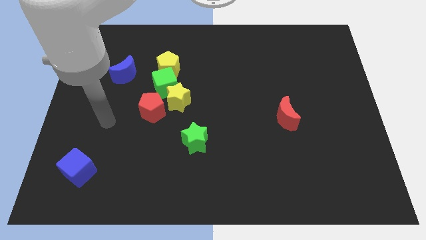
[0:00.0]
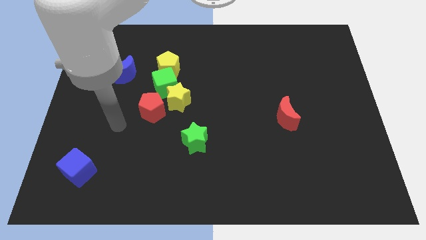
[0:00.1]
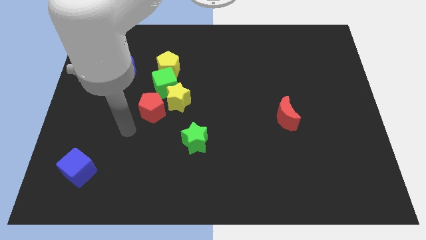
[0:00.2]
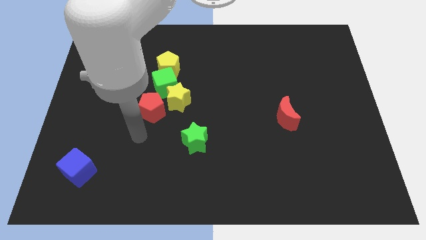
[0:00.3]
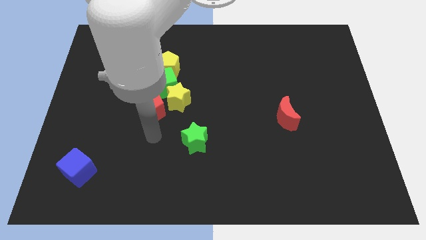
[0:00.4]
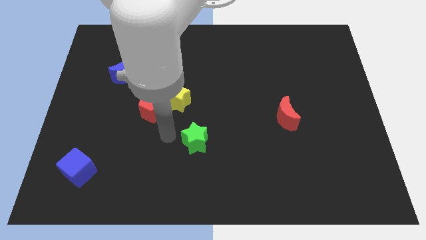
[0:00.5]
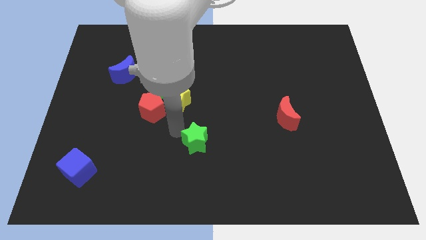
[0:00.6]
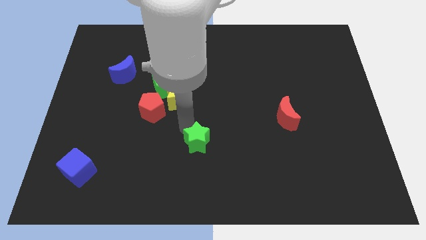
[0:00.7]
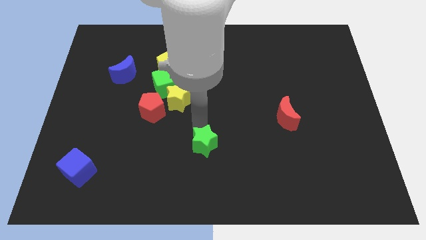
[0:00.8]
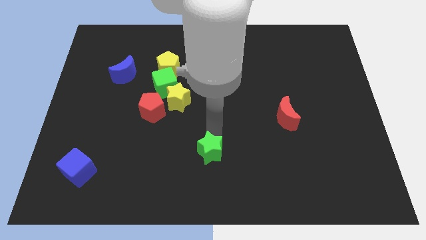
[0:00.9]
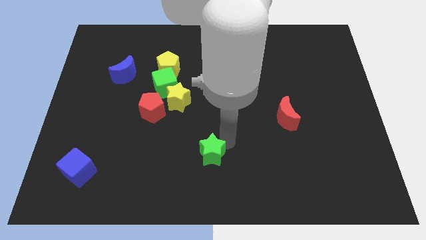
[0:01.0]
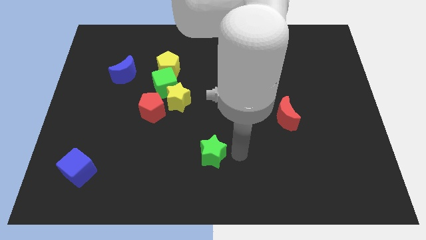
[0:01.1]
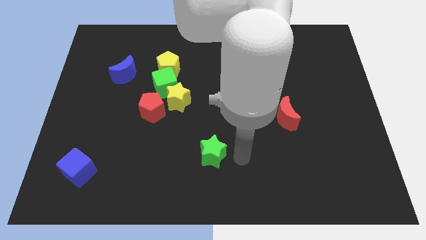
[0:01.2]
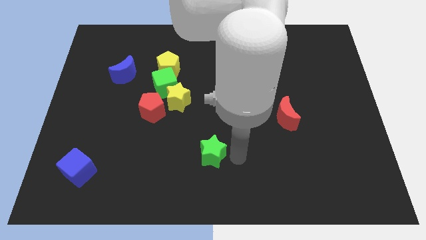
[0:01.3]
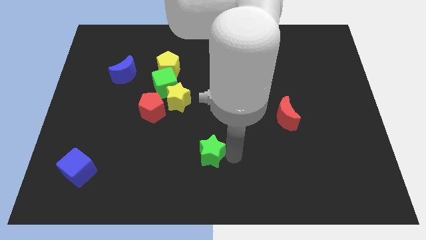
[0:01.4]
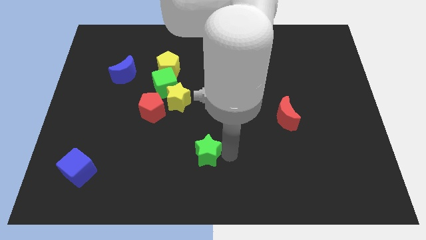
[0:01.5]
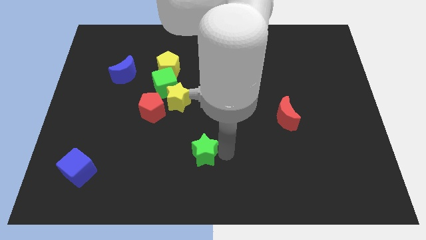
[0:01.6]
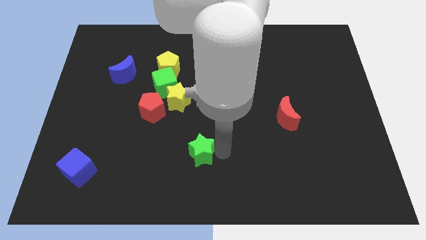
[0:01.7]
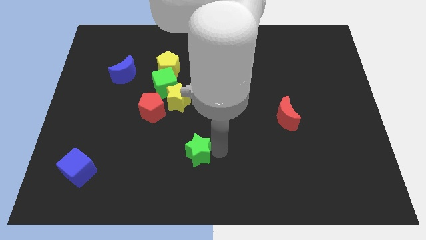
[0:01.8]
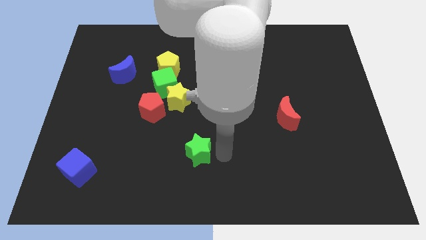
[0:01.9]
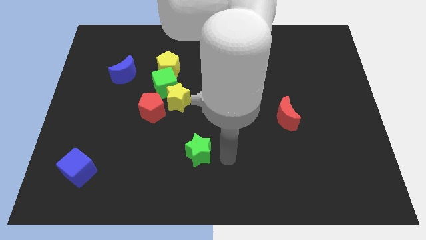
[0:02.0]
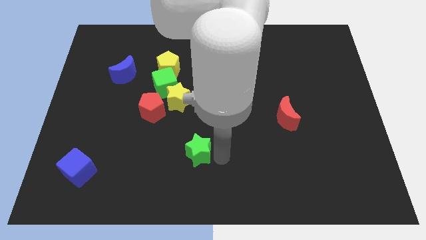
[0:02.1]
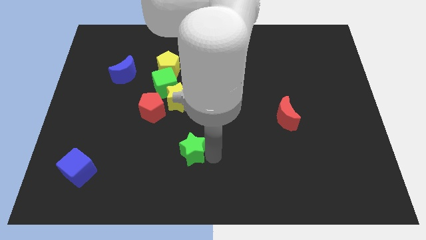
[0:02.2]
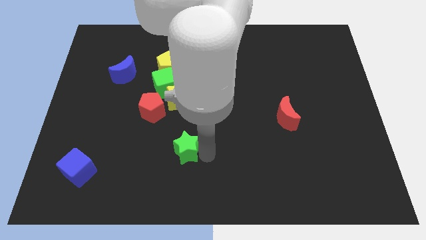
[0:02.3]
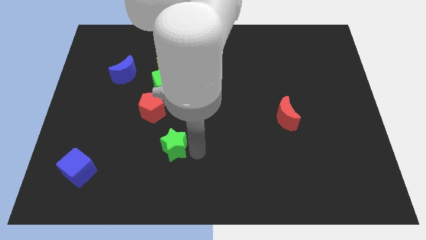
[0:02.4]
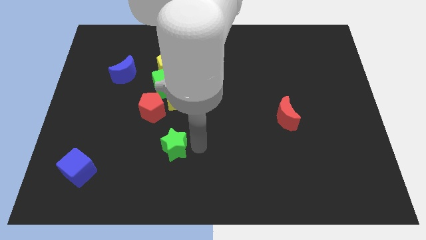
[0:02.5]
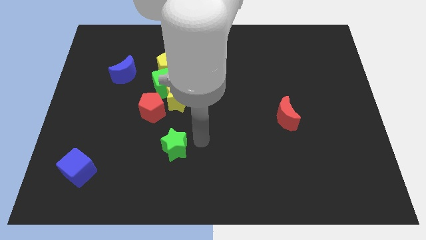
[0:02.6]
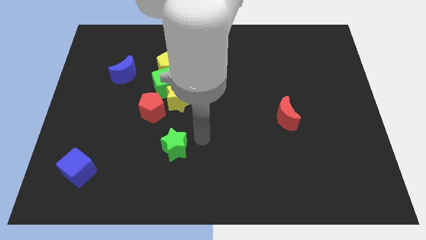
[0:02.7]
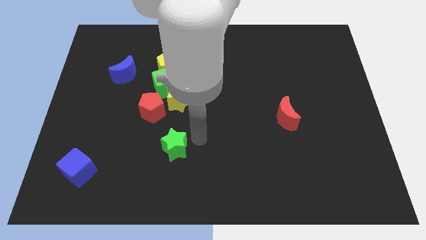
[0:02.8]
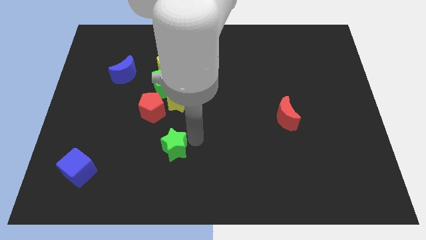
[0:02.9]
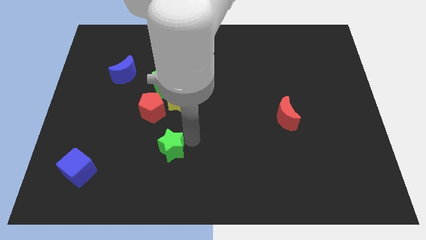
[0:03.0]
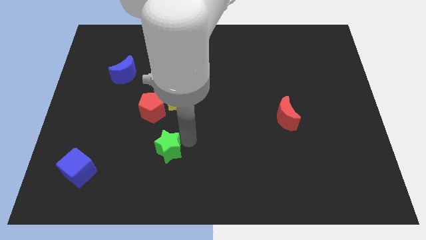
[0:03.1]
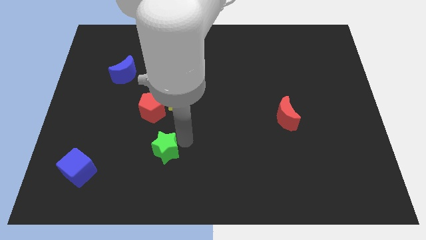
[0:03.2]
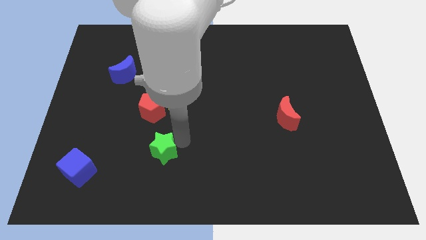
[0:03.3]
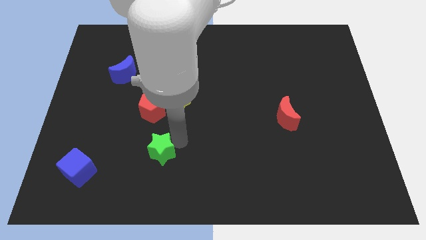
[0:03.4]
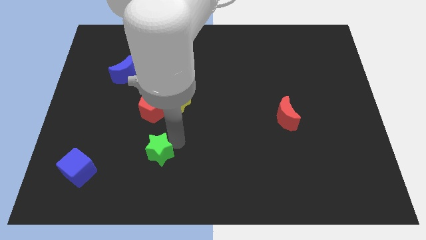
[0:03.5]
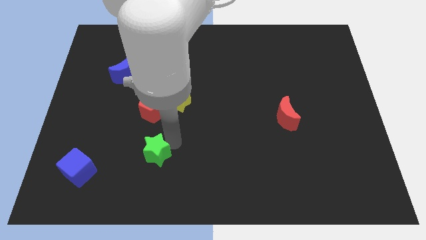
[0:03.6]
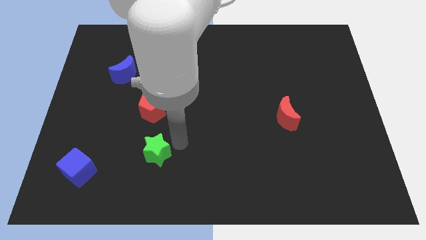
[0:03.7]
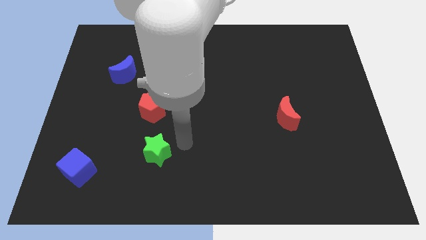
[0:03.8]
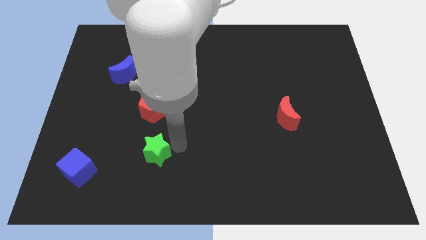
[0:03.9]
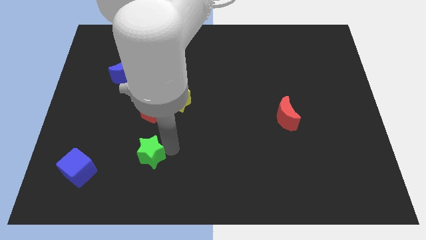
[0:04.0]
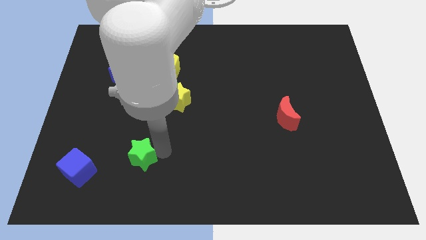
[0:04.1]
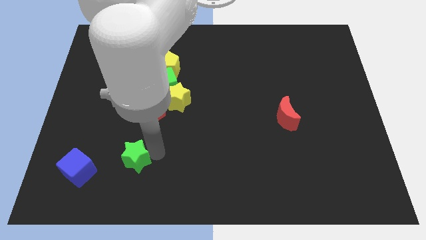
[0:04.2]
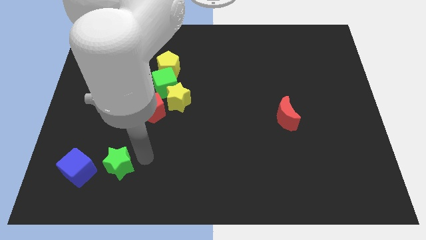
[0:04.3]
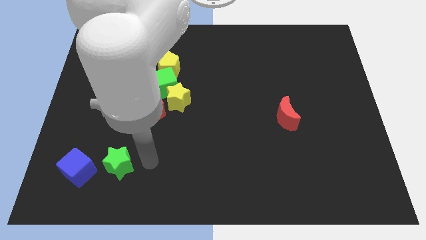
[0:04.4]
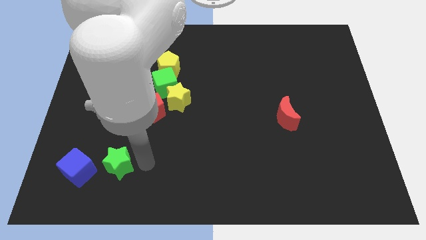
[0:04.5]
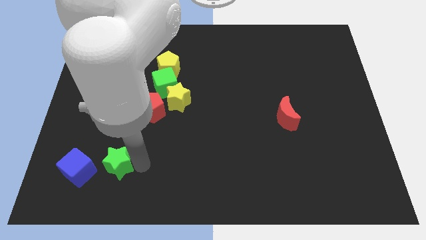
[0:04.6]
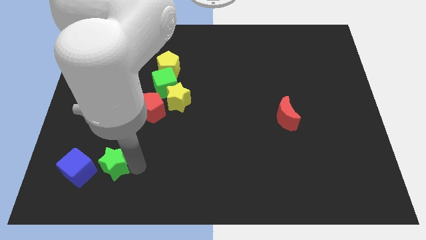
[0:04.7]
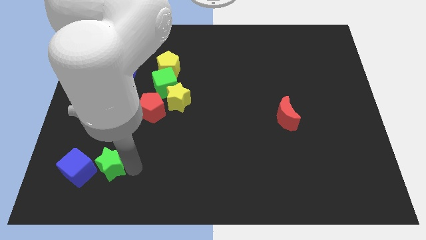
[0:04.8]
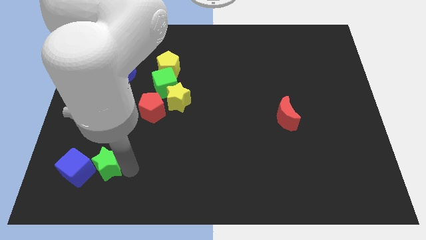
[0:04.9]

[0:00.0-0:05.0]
slide the green star to the blue cube

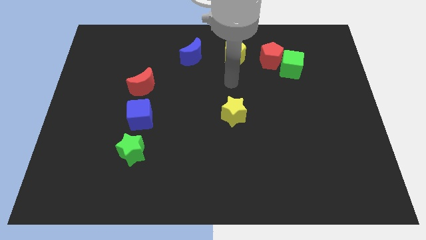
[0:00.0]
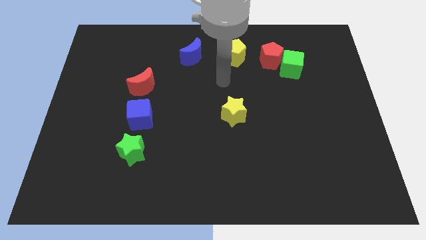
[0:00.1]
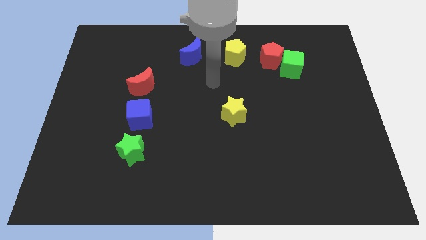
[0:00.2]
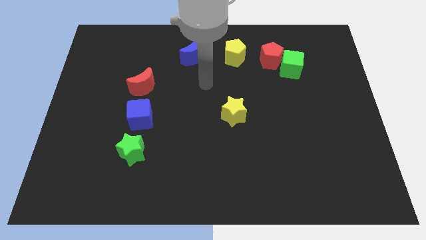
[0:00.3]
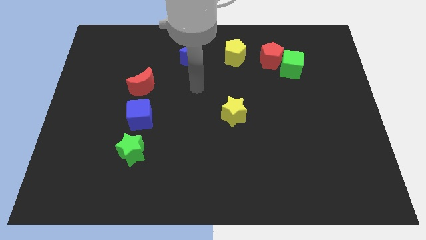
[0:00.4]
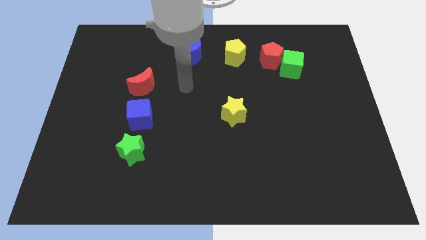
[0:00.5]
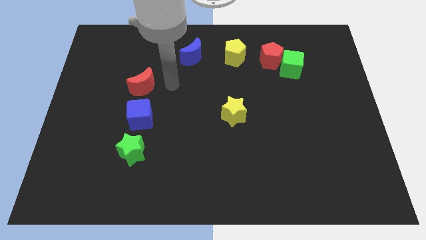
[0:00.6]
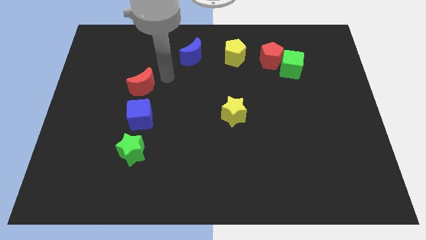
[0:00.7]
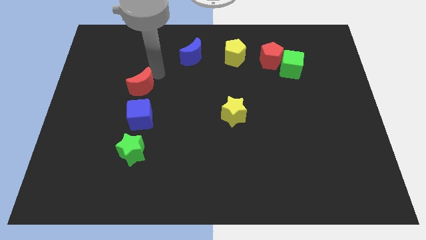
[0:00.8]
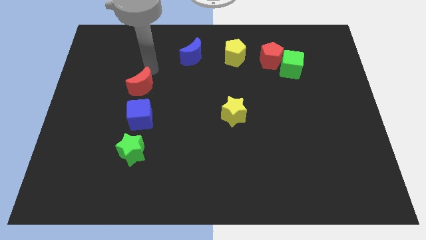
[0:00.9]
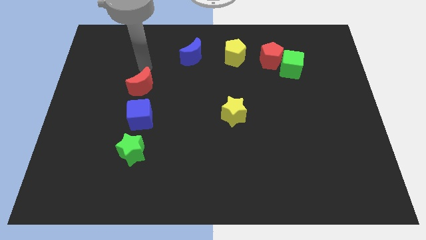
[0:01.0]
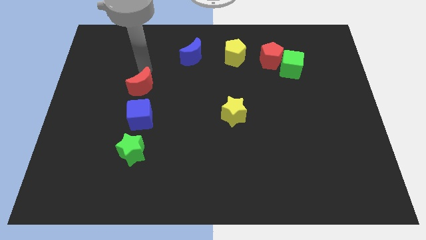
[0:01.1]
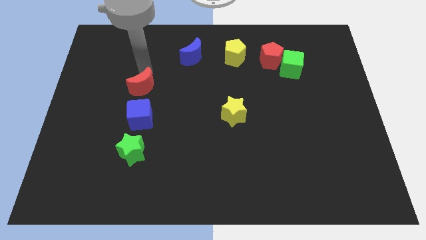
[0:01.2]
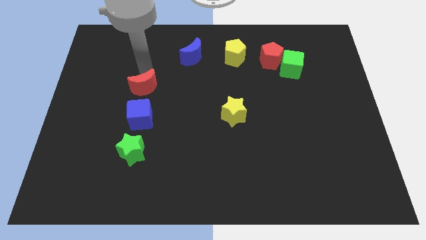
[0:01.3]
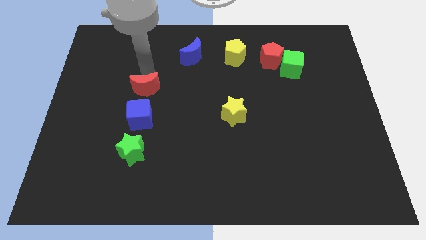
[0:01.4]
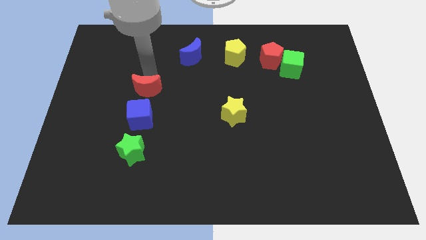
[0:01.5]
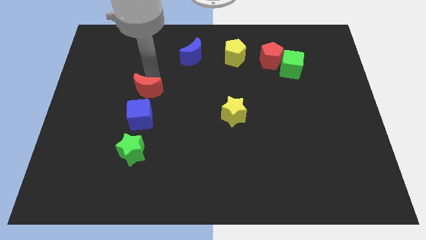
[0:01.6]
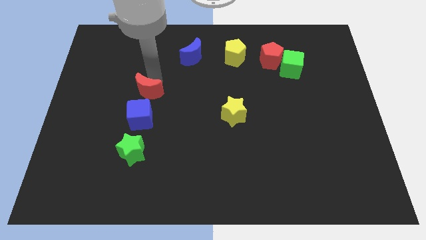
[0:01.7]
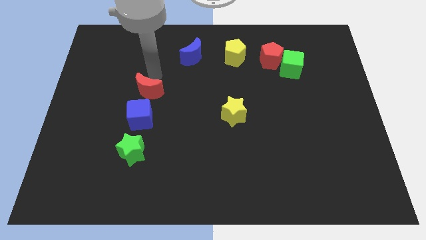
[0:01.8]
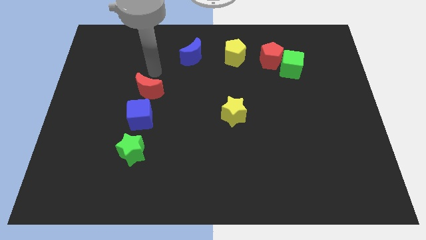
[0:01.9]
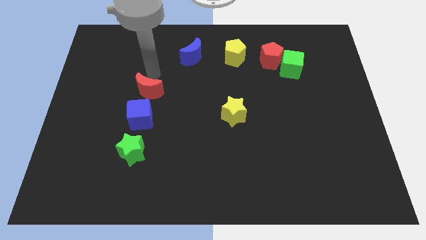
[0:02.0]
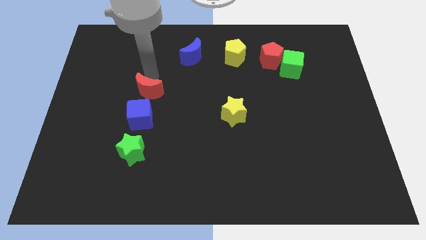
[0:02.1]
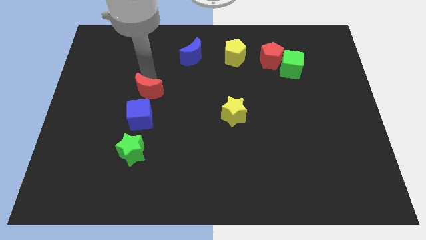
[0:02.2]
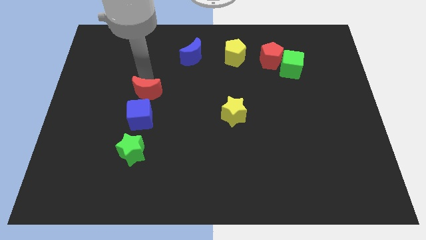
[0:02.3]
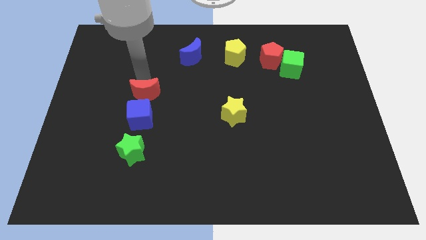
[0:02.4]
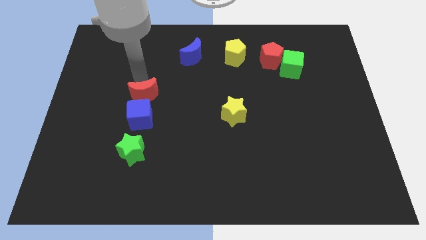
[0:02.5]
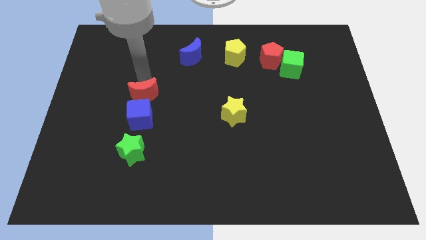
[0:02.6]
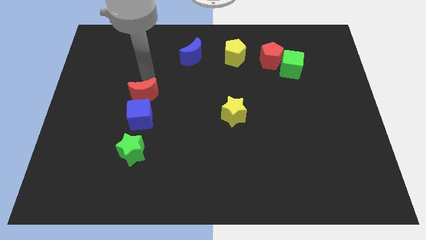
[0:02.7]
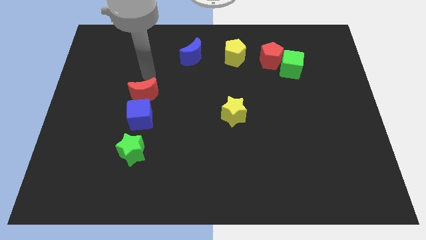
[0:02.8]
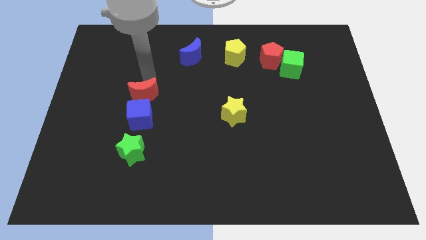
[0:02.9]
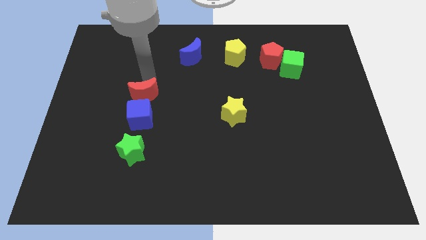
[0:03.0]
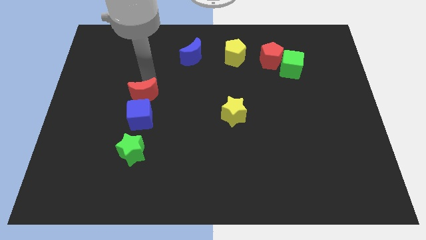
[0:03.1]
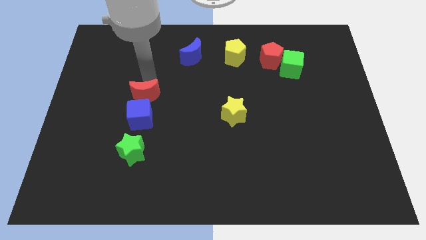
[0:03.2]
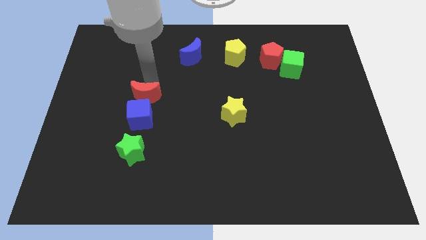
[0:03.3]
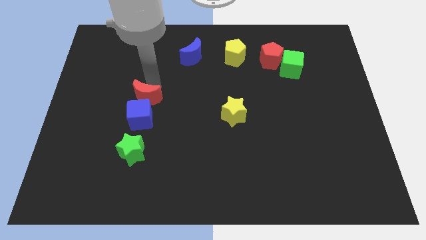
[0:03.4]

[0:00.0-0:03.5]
put the red moon to the blue cube
